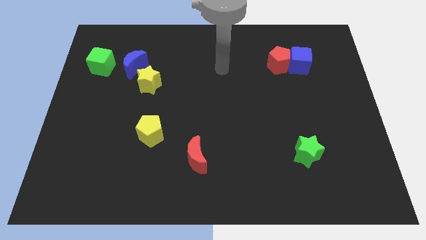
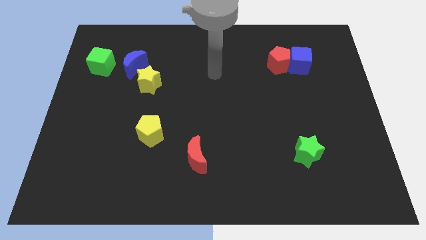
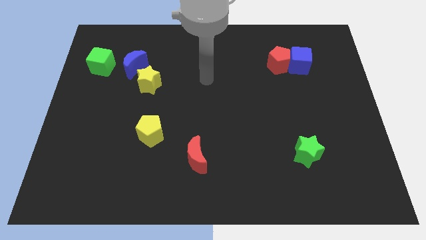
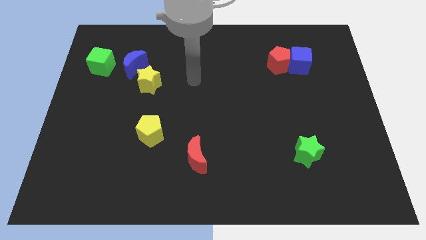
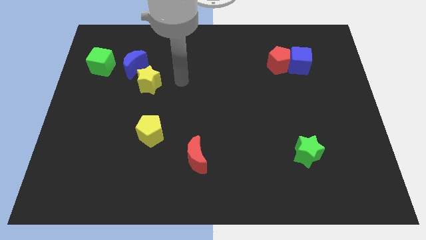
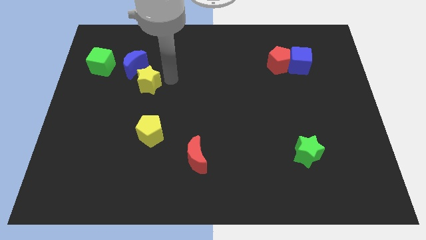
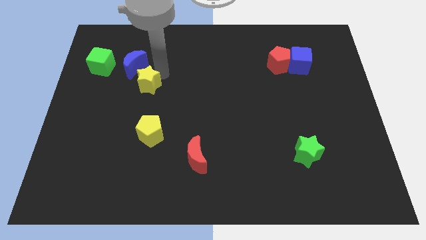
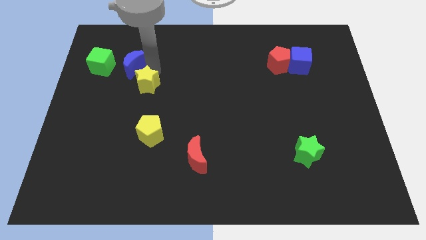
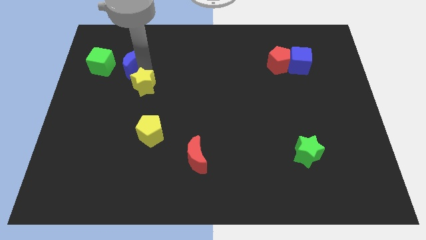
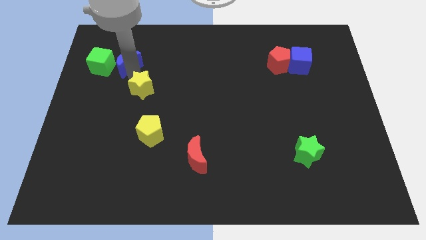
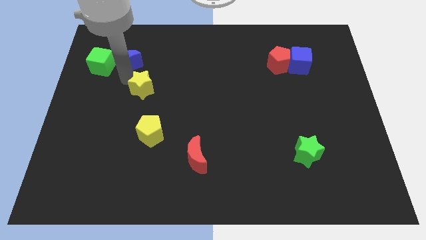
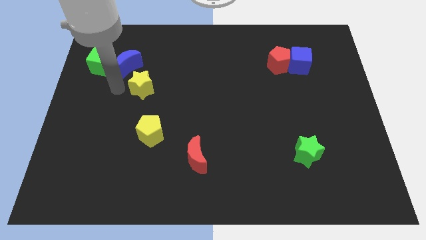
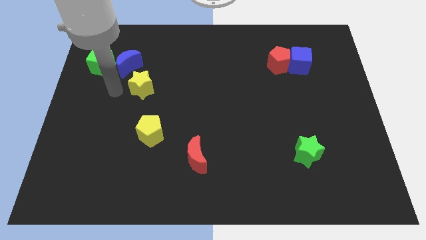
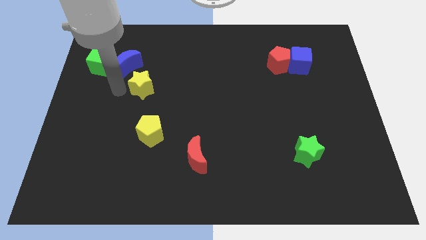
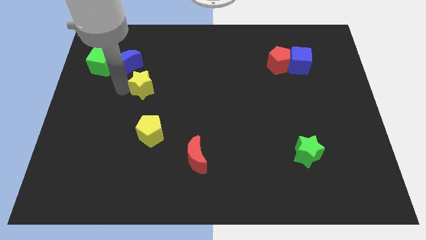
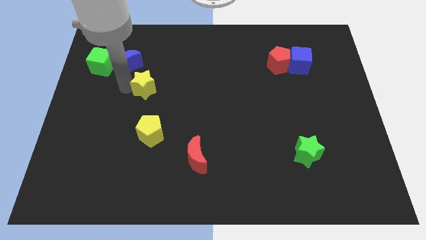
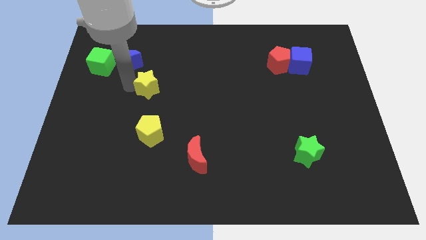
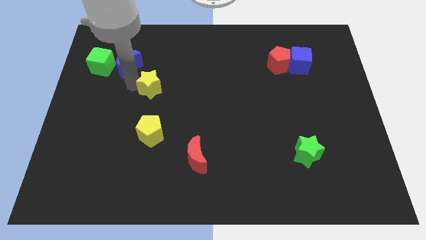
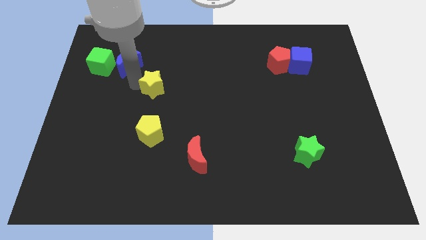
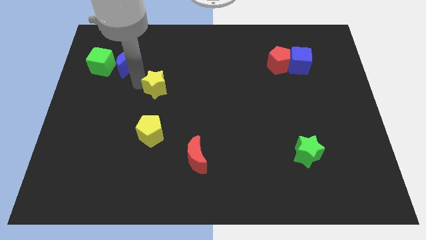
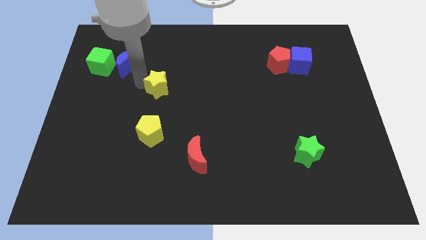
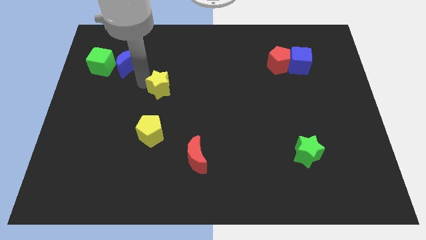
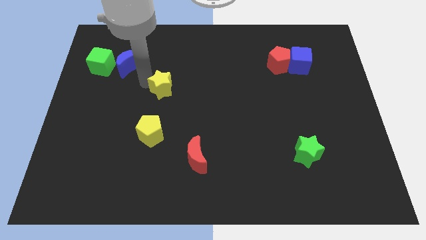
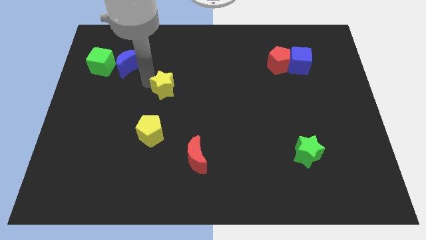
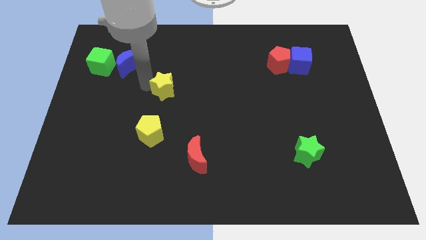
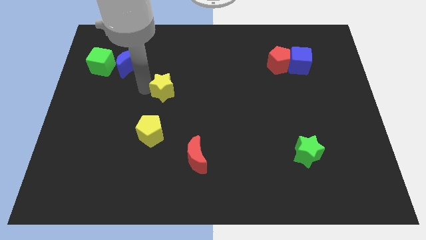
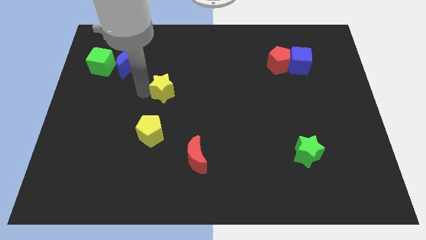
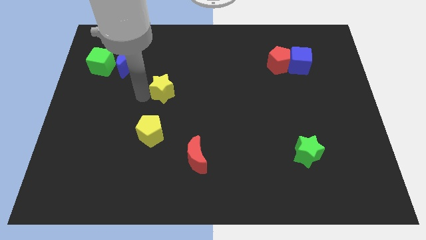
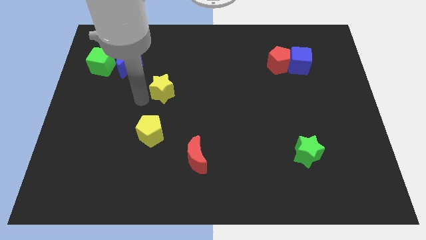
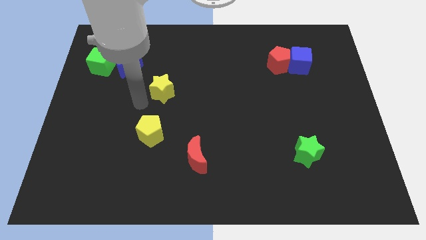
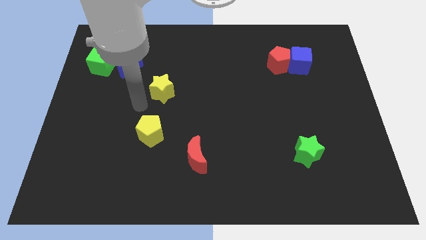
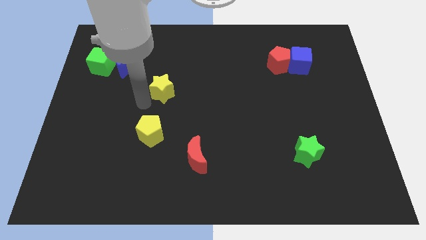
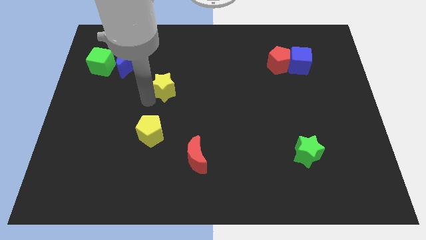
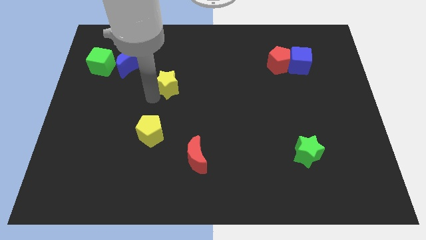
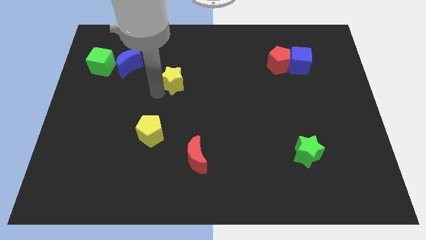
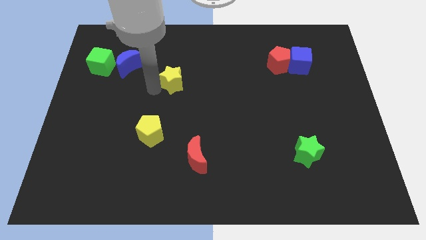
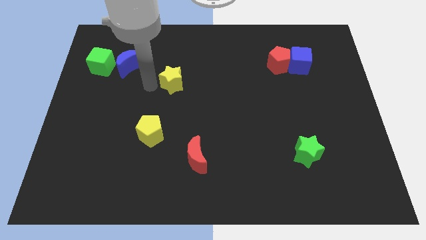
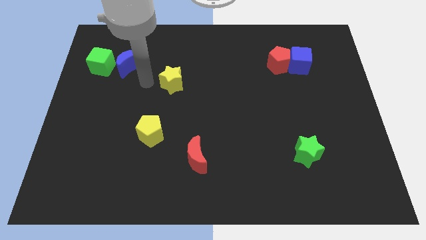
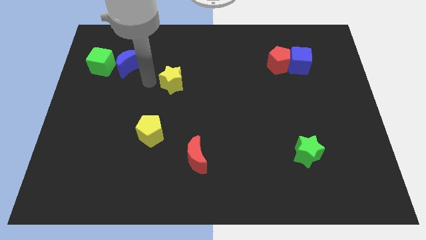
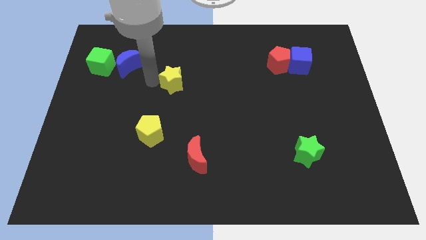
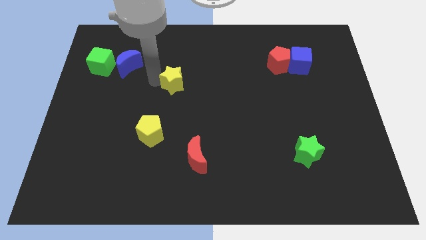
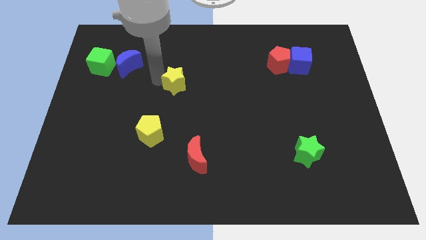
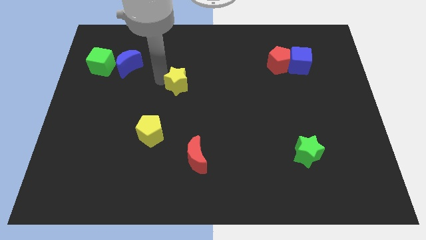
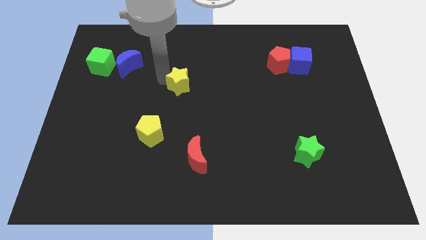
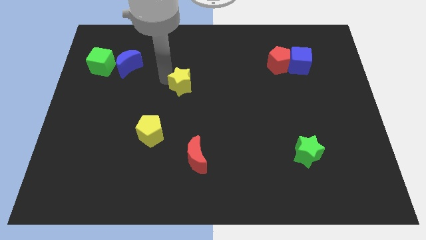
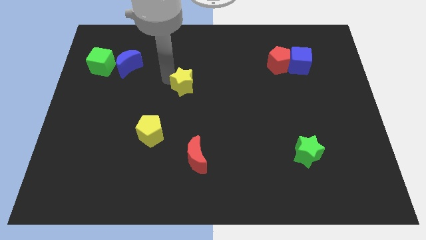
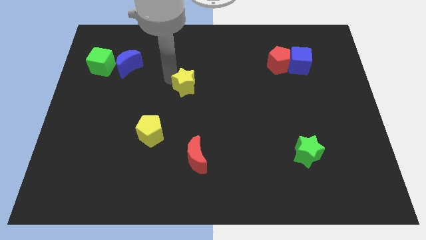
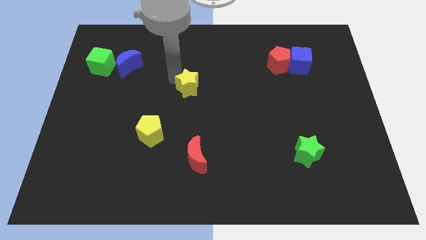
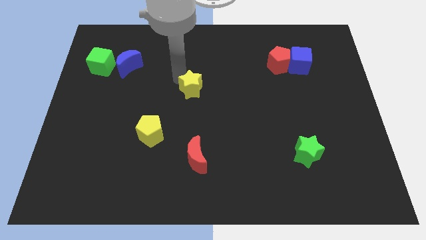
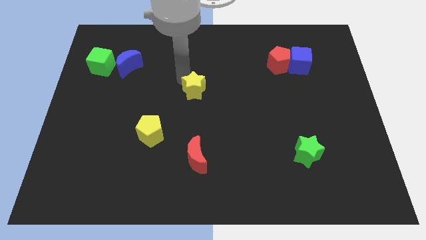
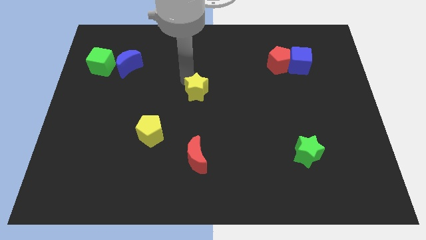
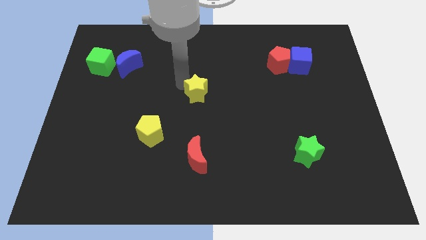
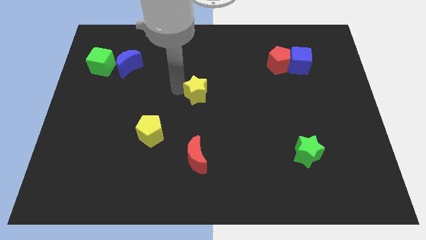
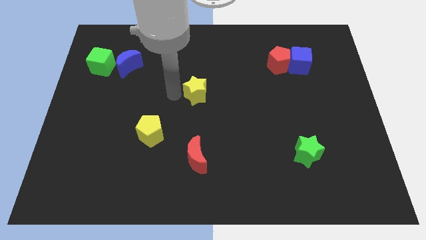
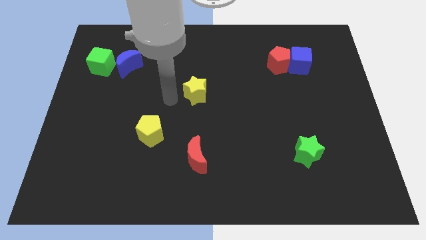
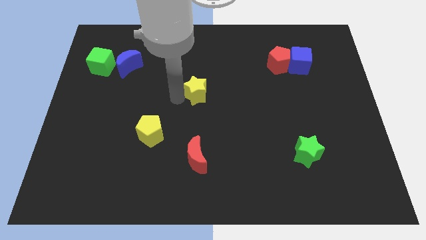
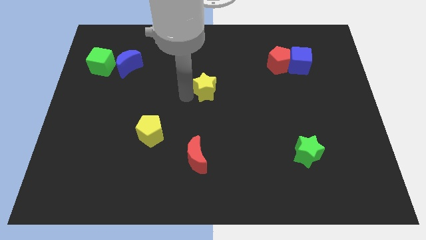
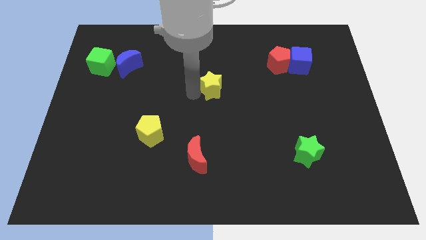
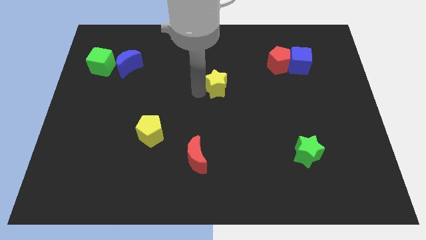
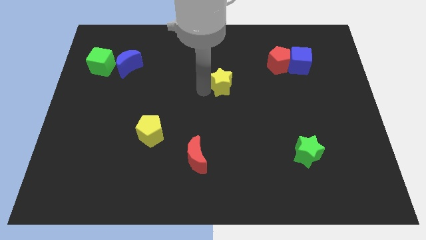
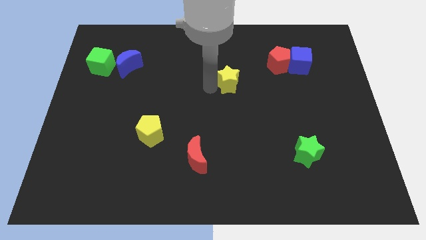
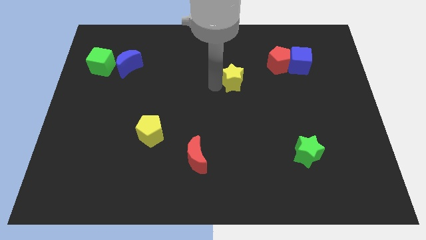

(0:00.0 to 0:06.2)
slide the yellow star to the right

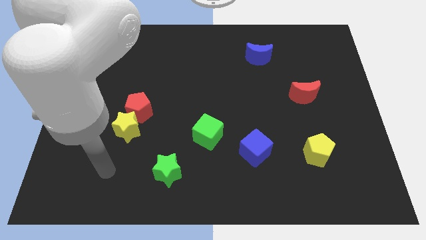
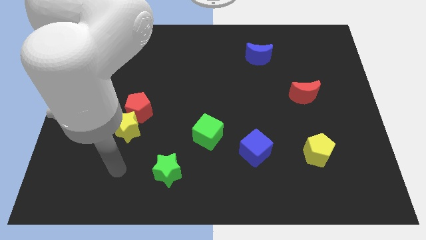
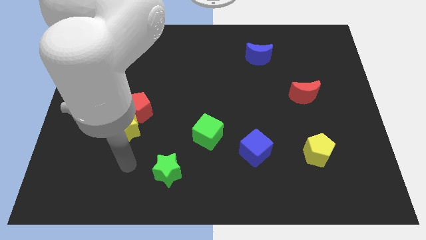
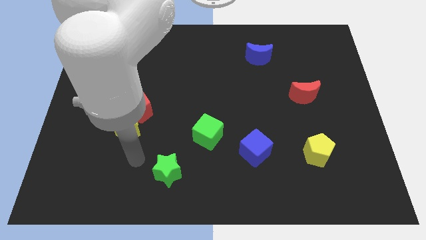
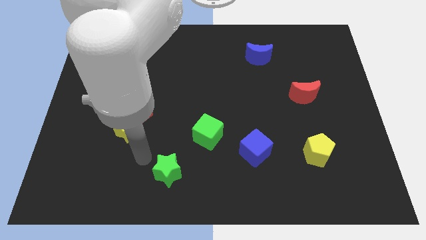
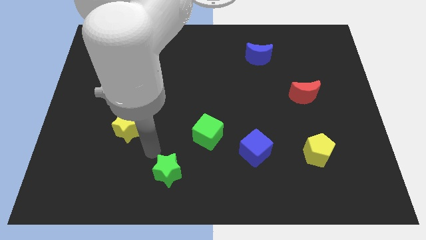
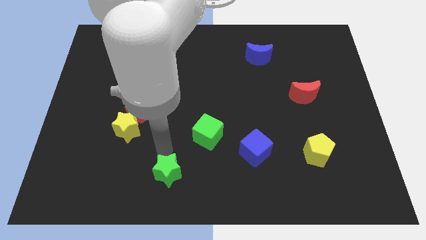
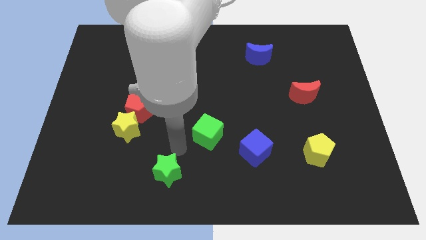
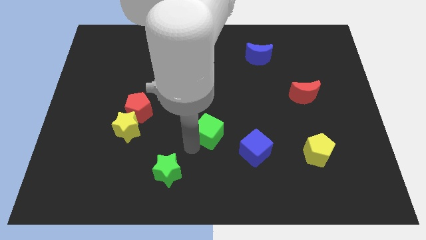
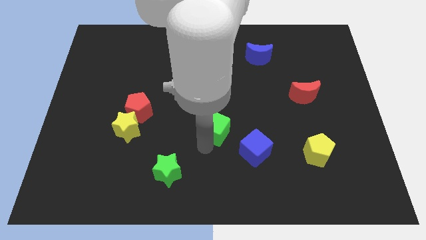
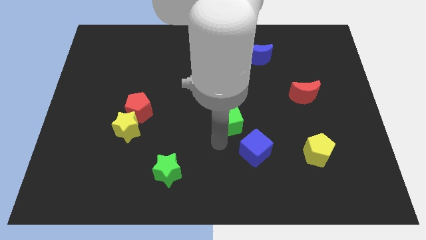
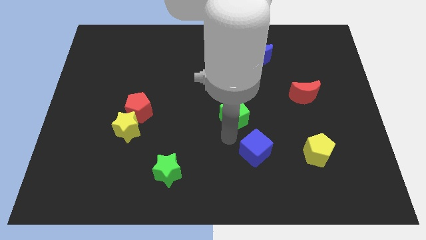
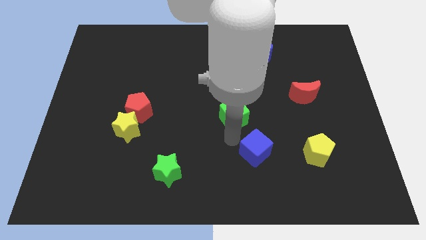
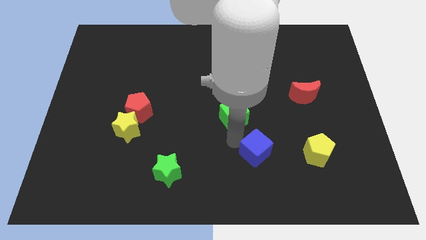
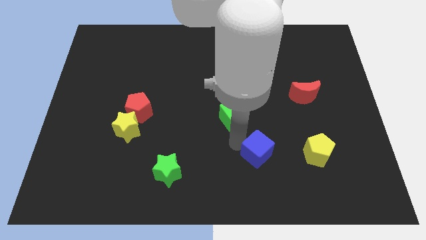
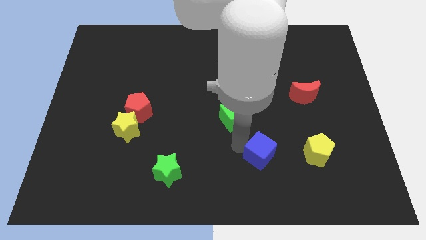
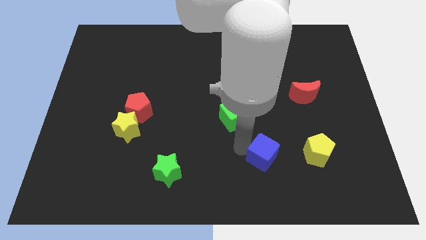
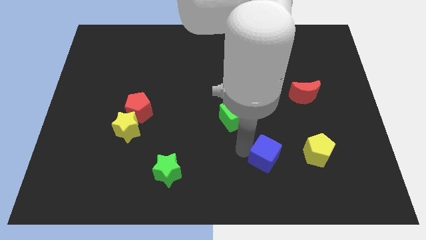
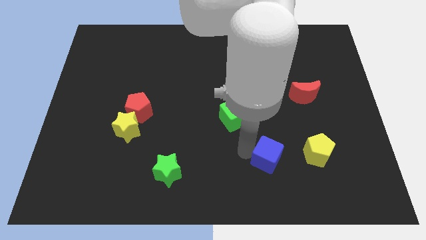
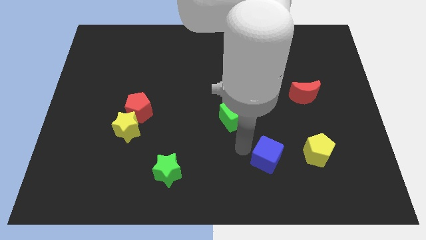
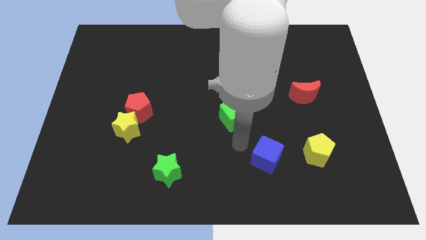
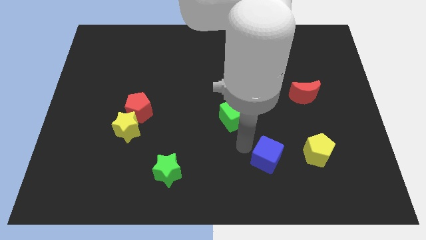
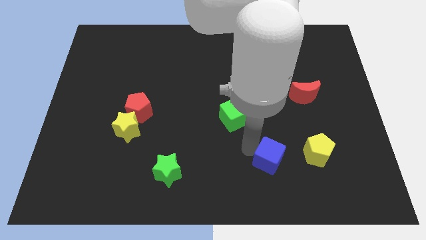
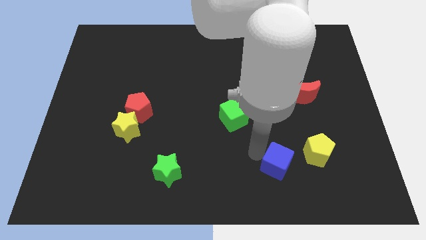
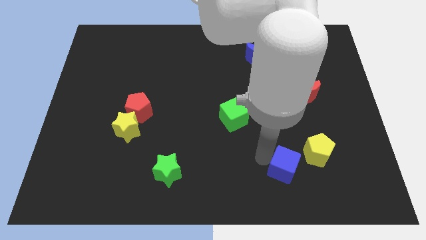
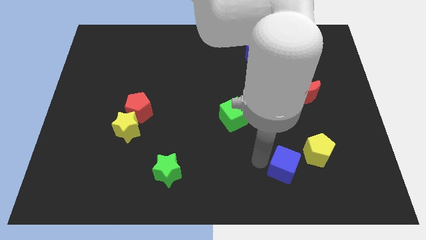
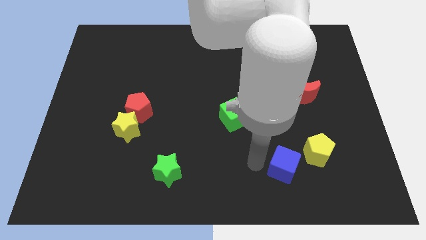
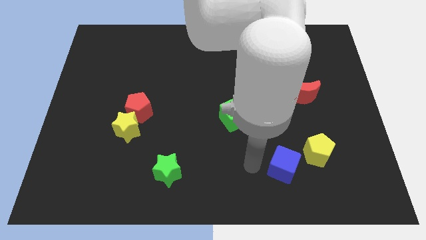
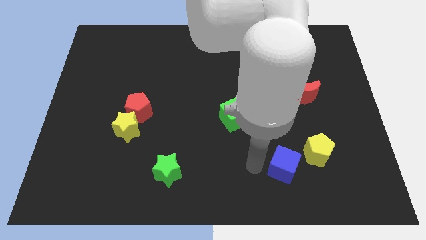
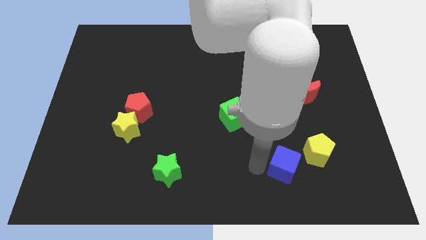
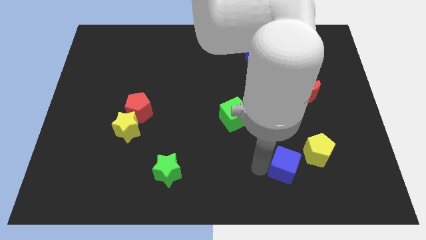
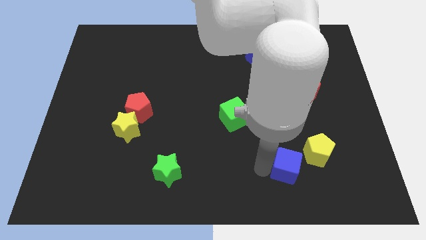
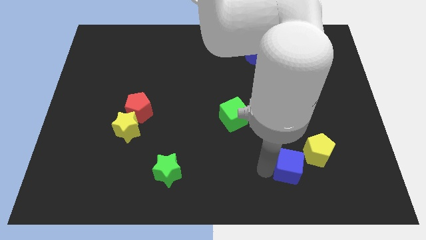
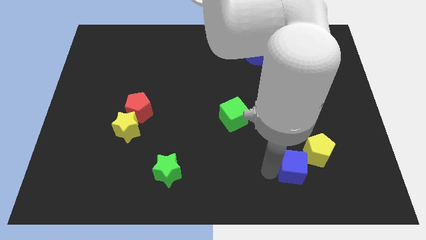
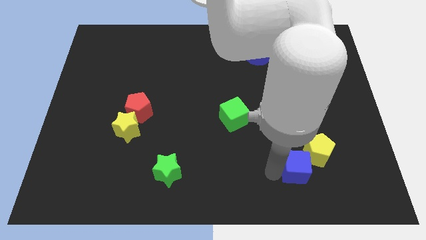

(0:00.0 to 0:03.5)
slightly push the blue cube right
